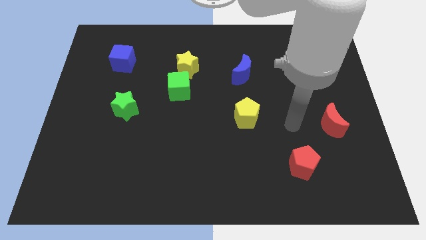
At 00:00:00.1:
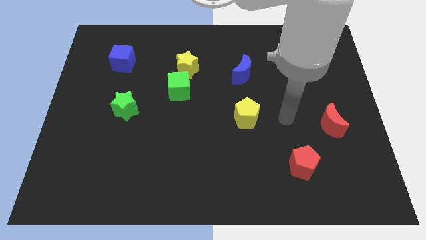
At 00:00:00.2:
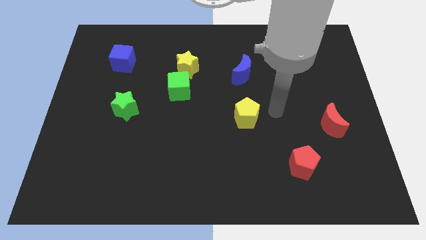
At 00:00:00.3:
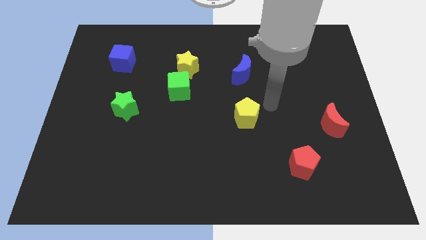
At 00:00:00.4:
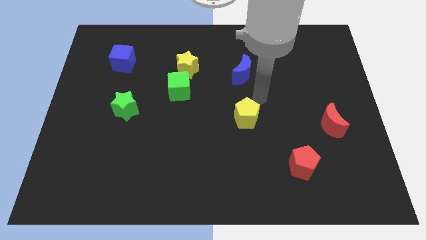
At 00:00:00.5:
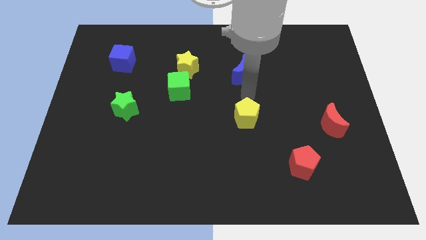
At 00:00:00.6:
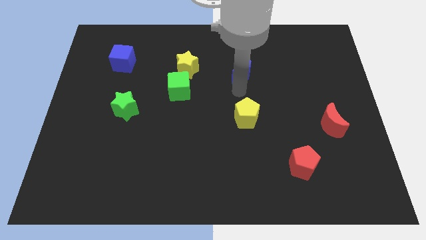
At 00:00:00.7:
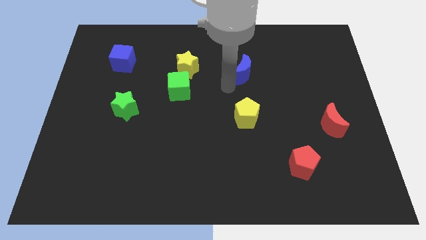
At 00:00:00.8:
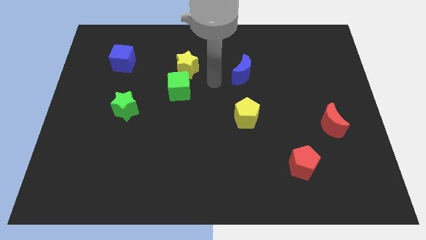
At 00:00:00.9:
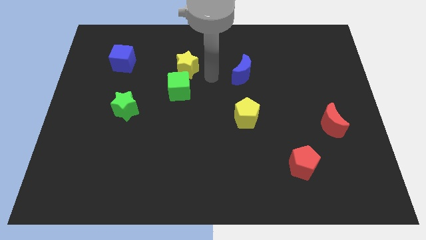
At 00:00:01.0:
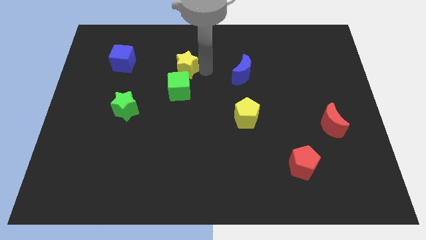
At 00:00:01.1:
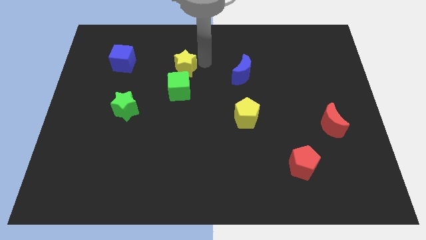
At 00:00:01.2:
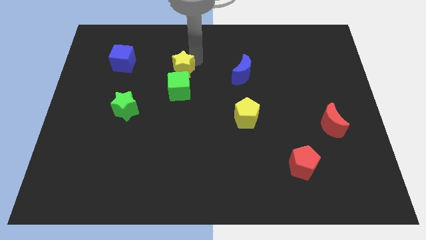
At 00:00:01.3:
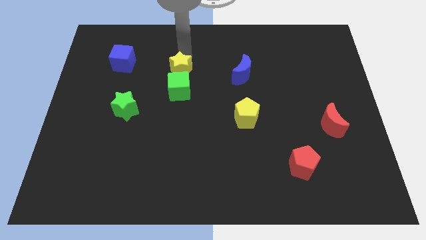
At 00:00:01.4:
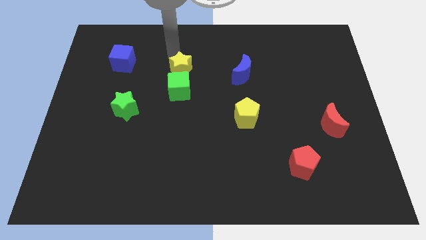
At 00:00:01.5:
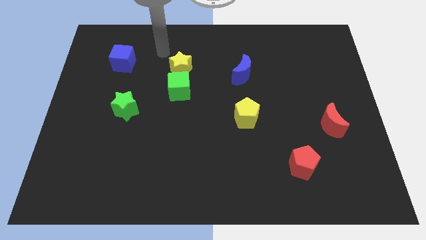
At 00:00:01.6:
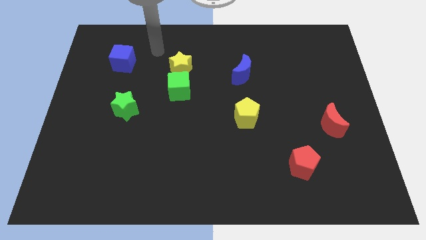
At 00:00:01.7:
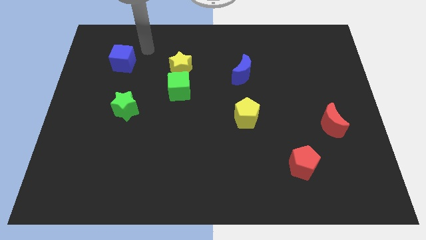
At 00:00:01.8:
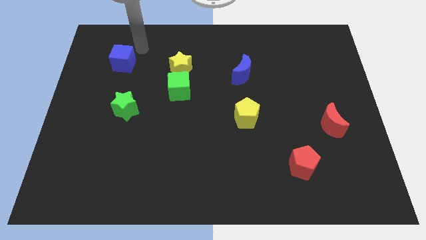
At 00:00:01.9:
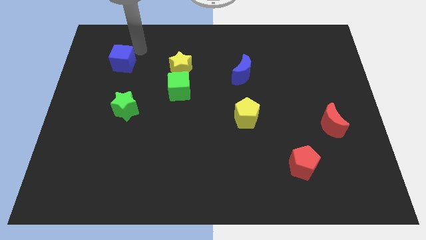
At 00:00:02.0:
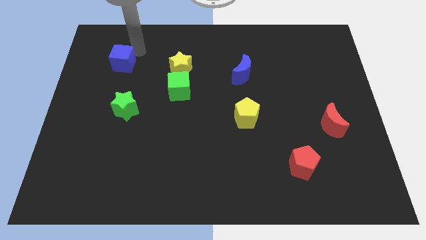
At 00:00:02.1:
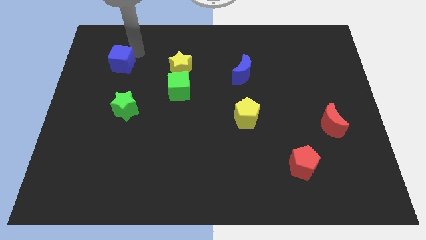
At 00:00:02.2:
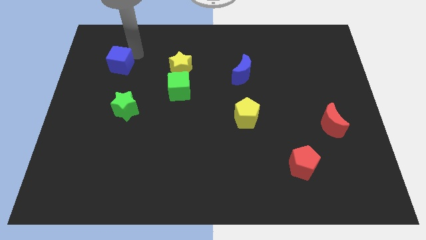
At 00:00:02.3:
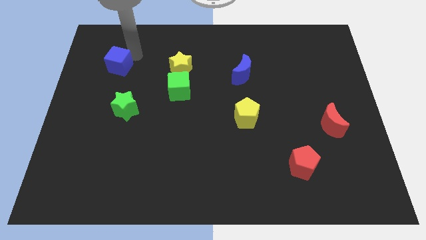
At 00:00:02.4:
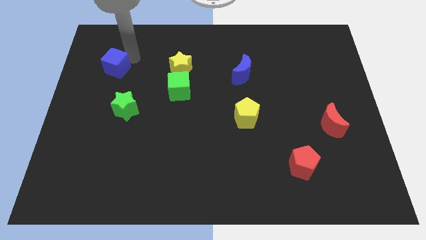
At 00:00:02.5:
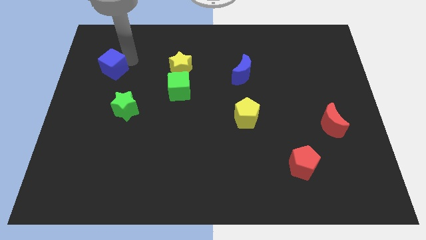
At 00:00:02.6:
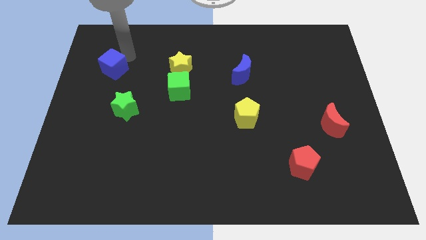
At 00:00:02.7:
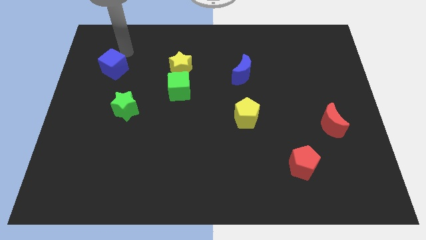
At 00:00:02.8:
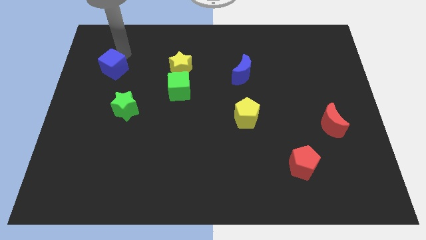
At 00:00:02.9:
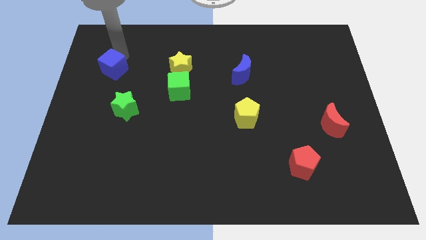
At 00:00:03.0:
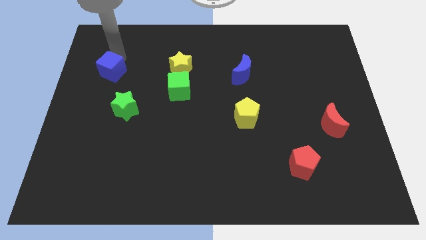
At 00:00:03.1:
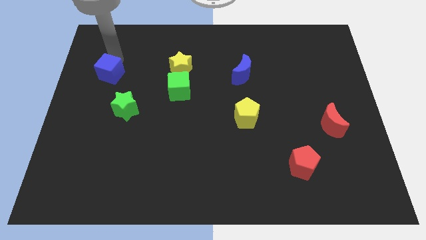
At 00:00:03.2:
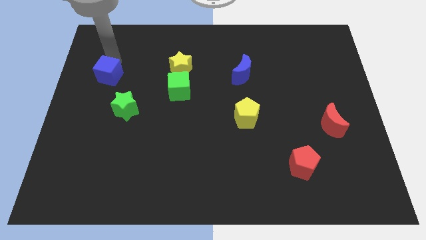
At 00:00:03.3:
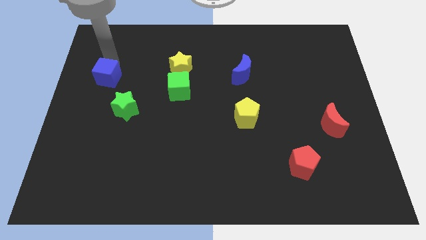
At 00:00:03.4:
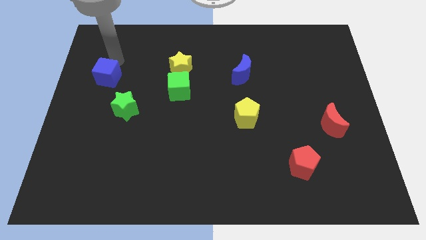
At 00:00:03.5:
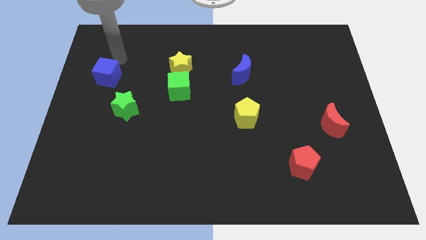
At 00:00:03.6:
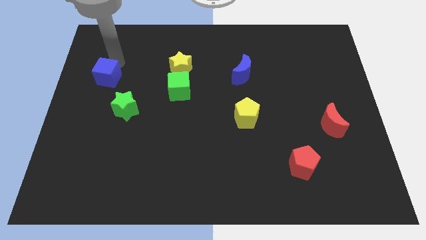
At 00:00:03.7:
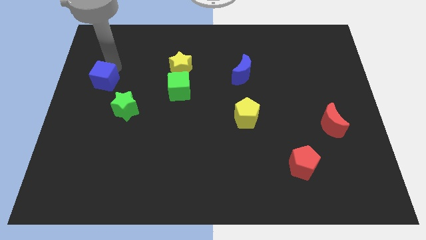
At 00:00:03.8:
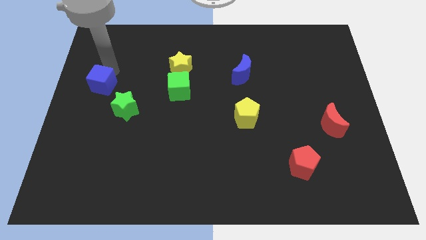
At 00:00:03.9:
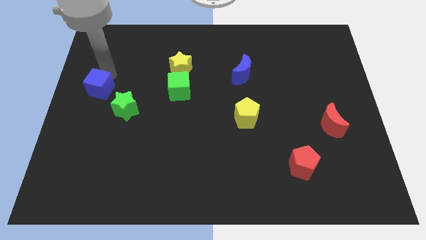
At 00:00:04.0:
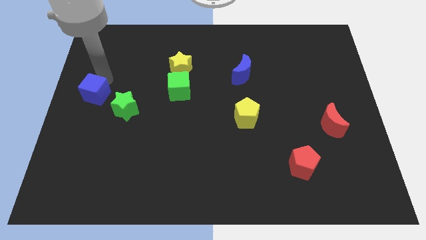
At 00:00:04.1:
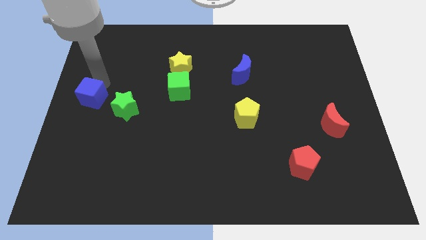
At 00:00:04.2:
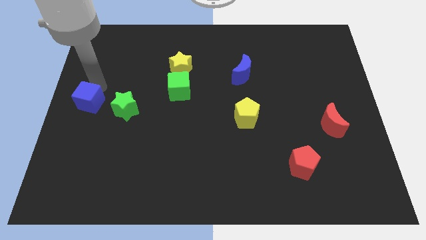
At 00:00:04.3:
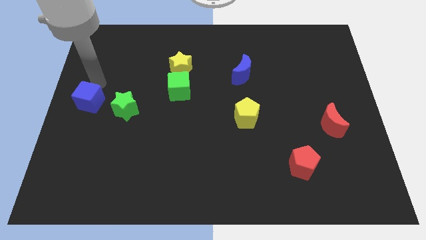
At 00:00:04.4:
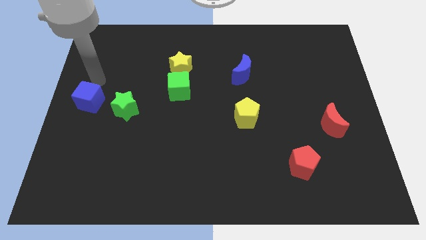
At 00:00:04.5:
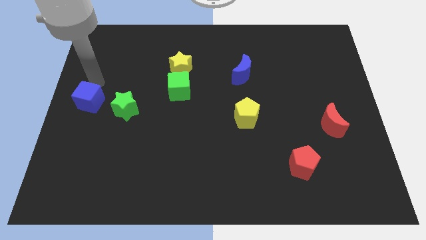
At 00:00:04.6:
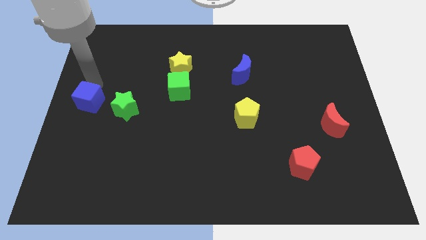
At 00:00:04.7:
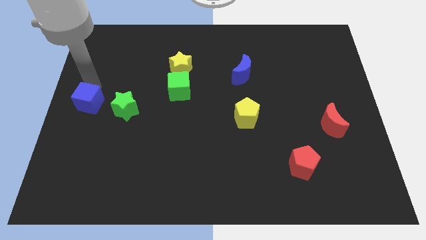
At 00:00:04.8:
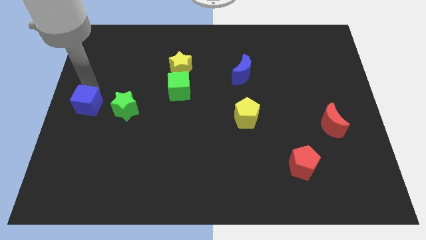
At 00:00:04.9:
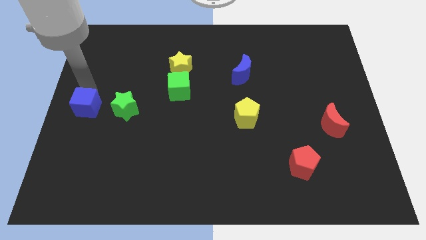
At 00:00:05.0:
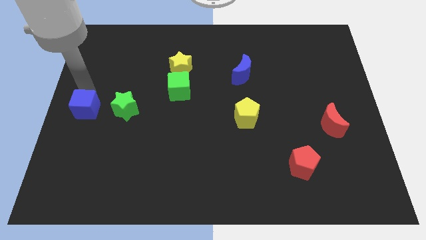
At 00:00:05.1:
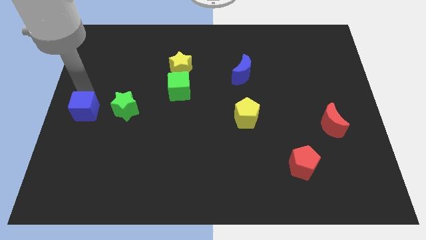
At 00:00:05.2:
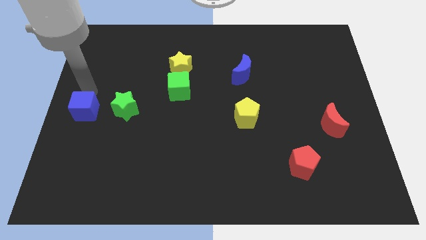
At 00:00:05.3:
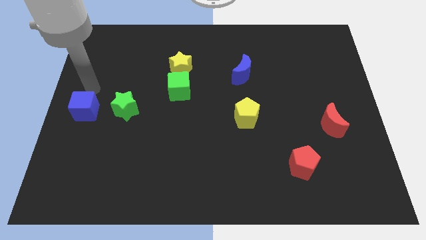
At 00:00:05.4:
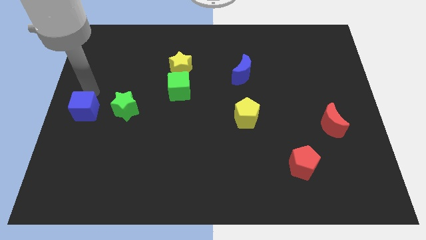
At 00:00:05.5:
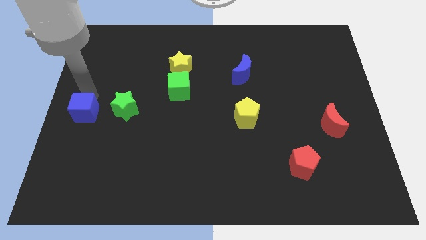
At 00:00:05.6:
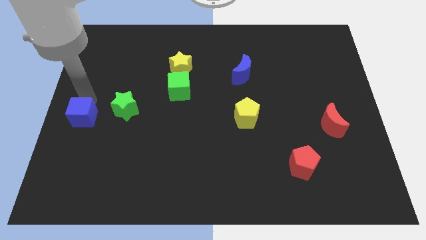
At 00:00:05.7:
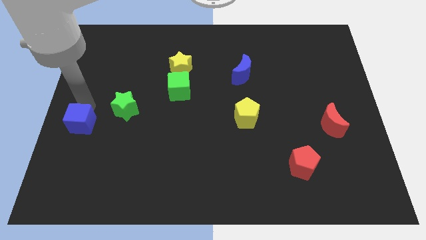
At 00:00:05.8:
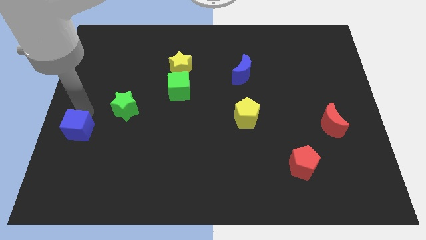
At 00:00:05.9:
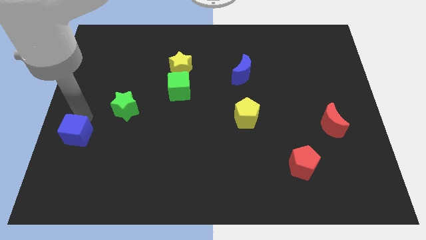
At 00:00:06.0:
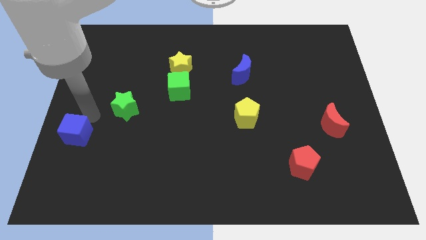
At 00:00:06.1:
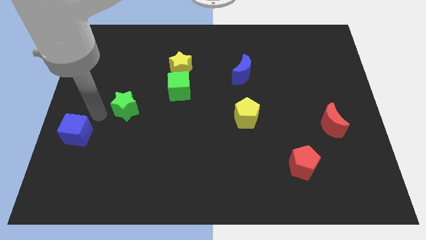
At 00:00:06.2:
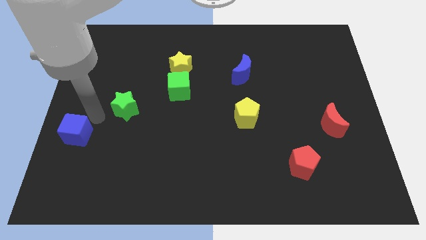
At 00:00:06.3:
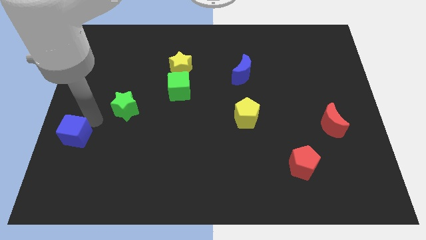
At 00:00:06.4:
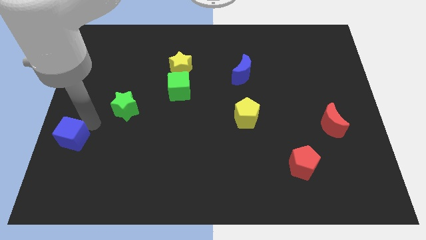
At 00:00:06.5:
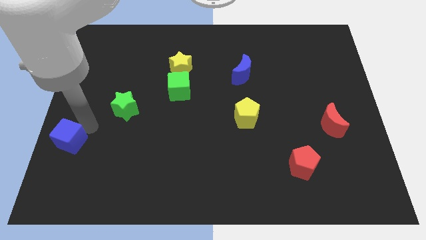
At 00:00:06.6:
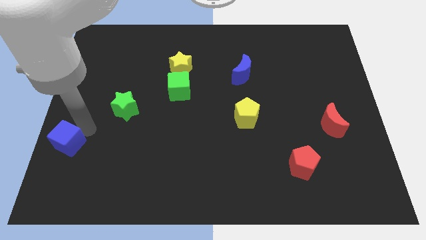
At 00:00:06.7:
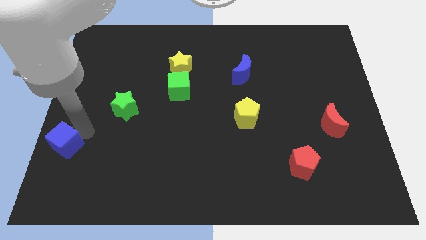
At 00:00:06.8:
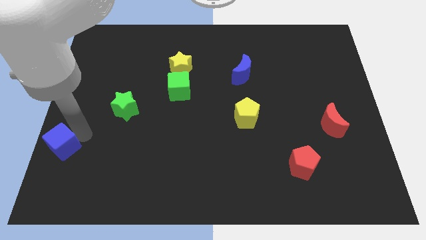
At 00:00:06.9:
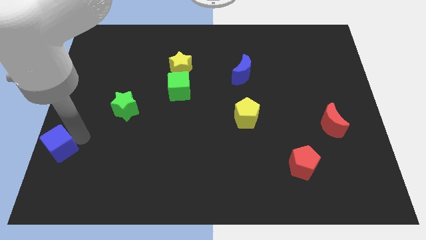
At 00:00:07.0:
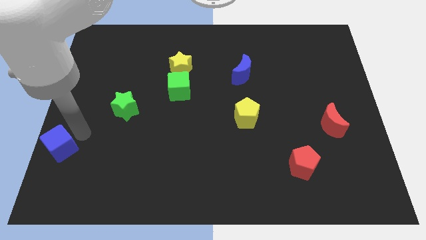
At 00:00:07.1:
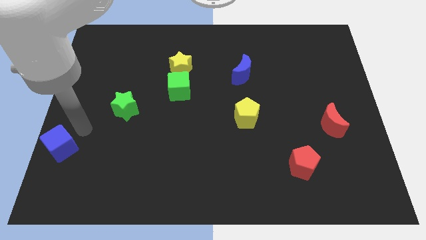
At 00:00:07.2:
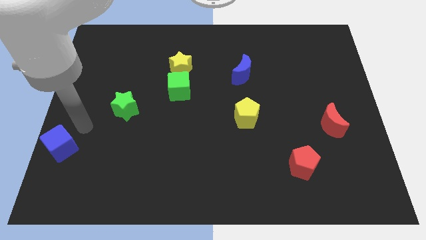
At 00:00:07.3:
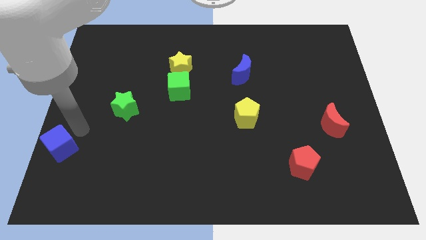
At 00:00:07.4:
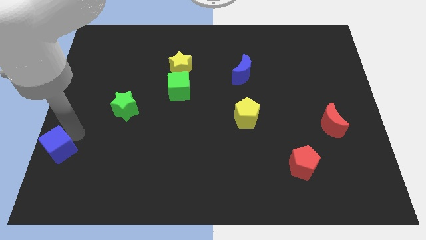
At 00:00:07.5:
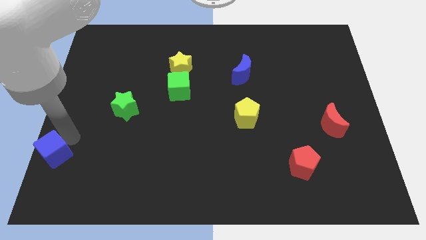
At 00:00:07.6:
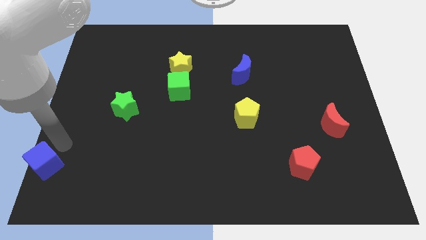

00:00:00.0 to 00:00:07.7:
put the blue cube to the bottom left corner
